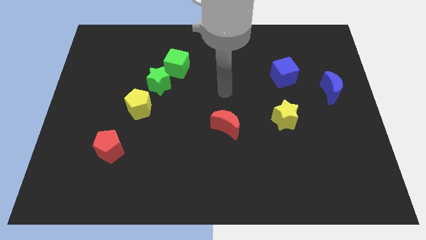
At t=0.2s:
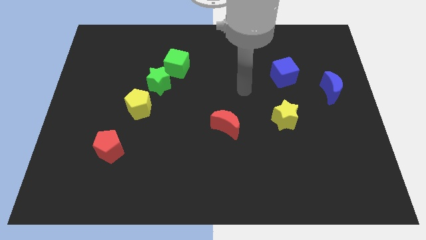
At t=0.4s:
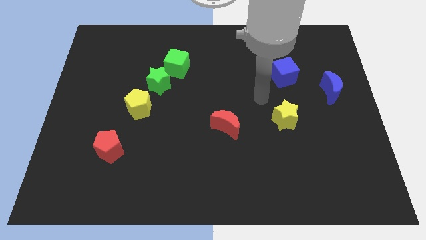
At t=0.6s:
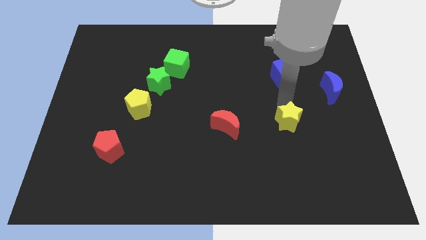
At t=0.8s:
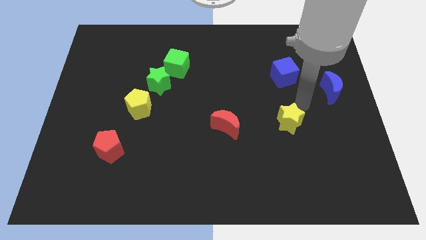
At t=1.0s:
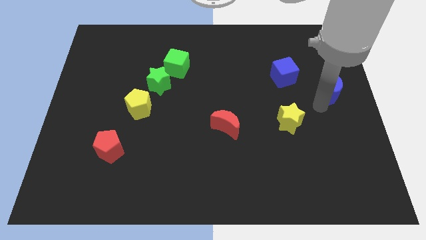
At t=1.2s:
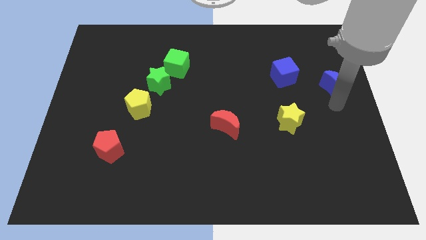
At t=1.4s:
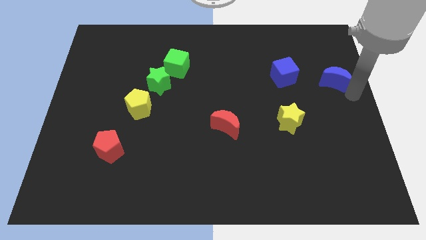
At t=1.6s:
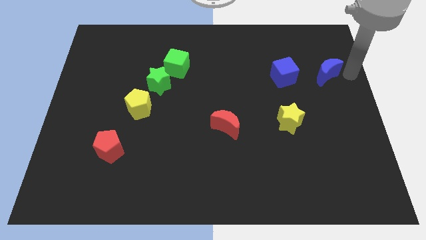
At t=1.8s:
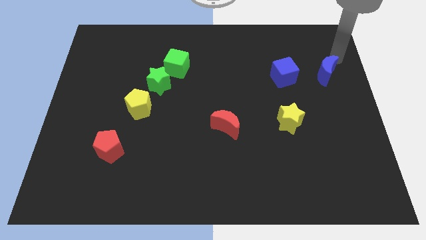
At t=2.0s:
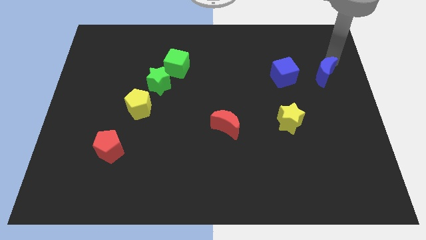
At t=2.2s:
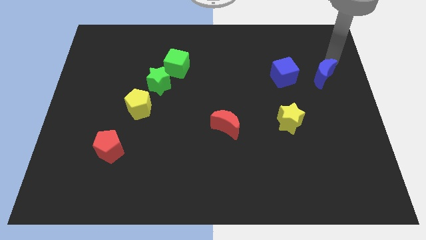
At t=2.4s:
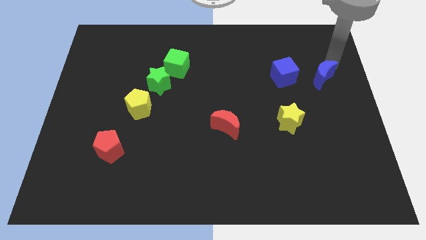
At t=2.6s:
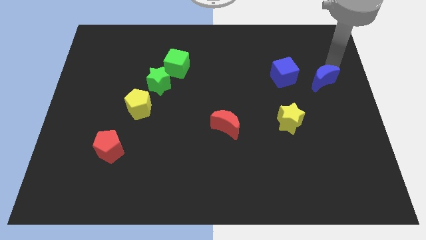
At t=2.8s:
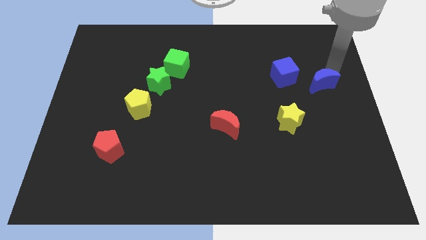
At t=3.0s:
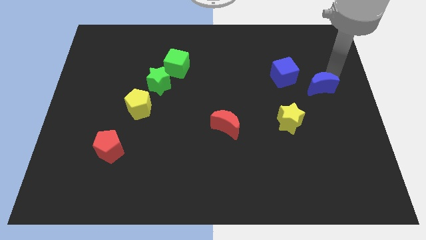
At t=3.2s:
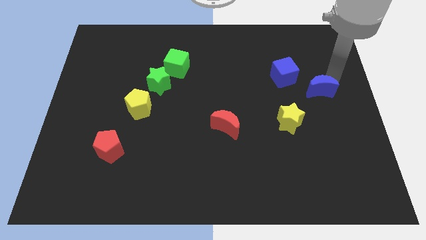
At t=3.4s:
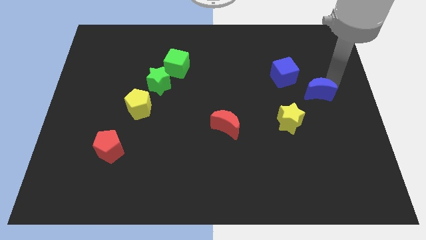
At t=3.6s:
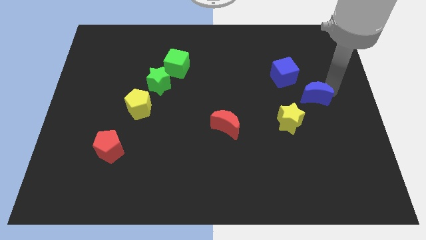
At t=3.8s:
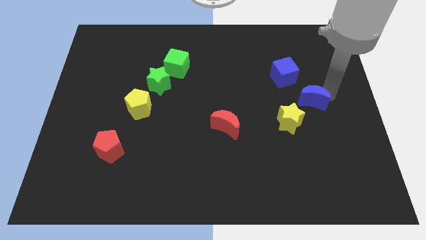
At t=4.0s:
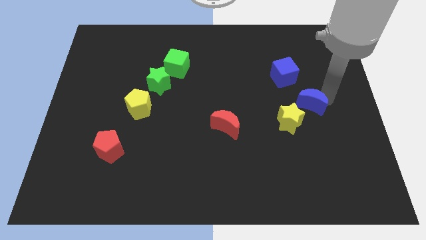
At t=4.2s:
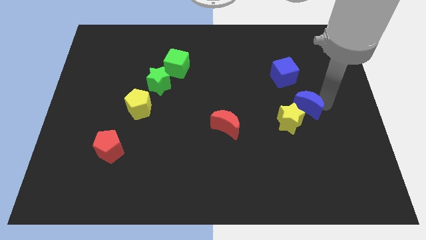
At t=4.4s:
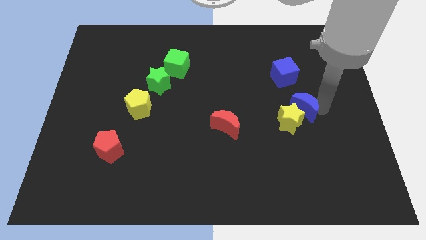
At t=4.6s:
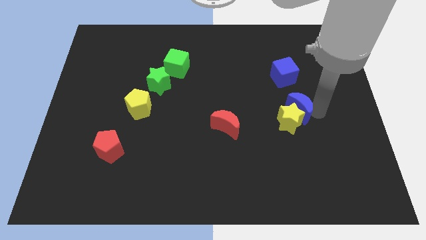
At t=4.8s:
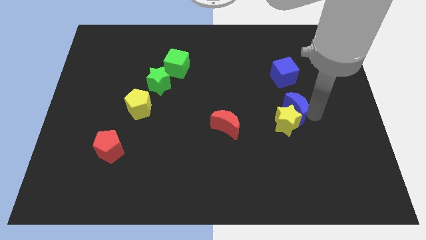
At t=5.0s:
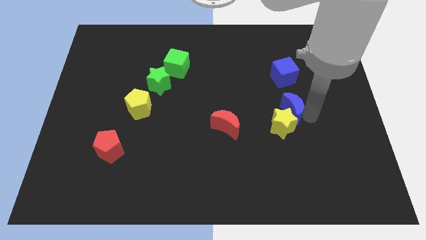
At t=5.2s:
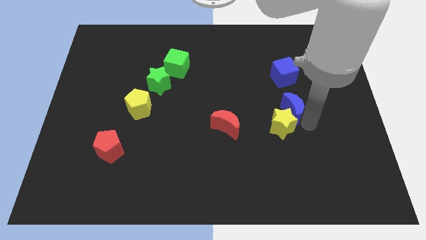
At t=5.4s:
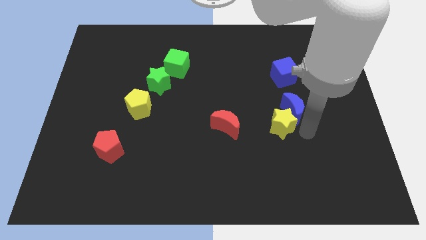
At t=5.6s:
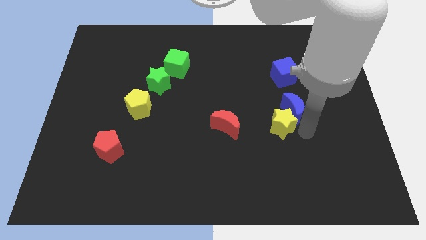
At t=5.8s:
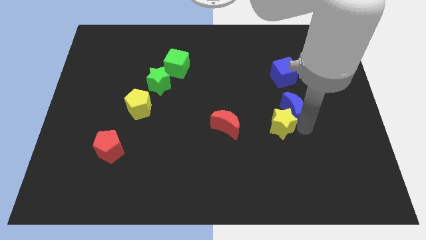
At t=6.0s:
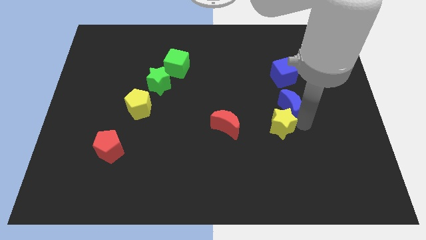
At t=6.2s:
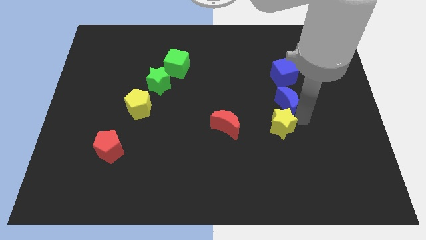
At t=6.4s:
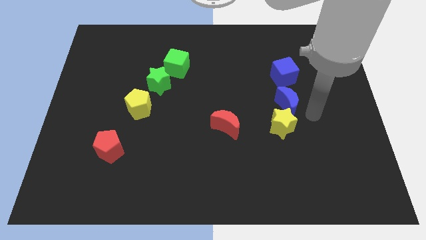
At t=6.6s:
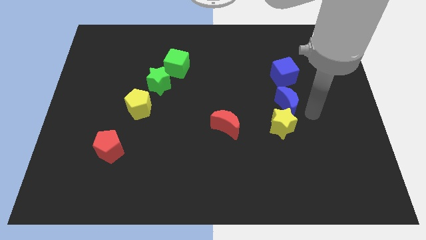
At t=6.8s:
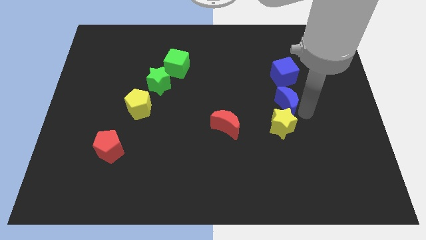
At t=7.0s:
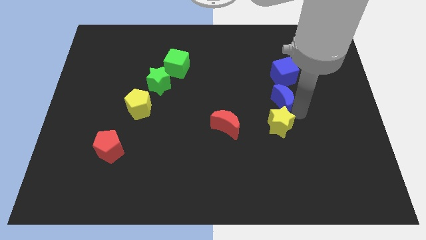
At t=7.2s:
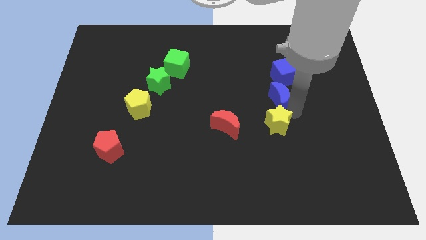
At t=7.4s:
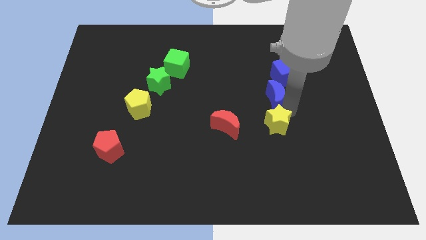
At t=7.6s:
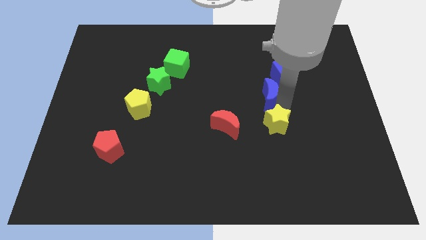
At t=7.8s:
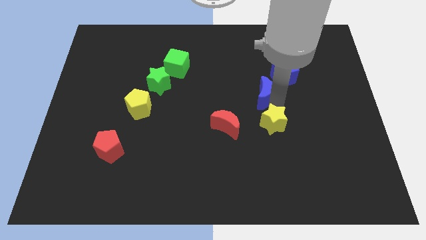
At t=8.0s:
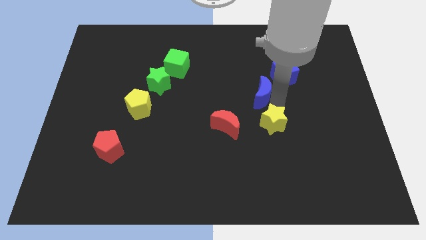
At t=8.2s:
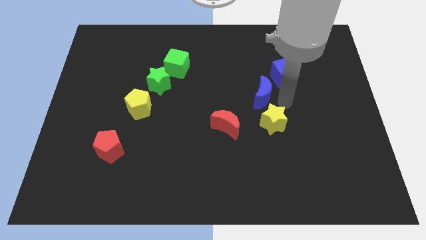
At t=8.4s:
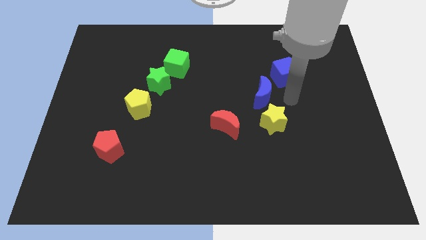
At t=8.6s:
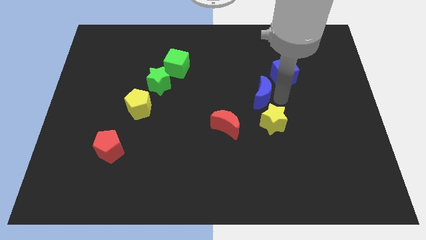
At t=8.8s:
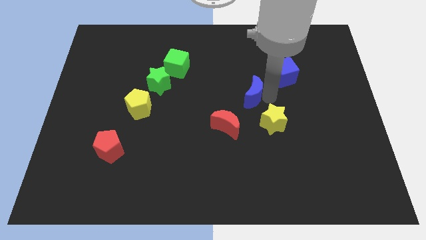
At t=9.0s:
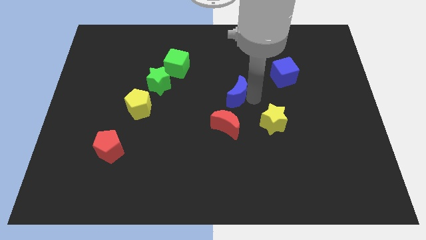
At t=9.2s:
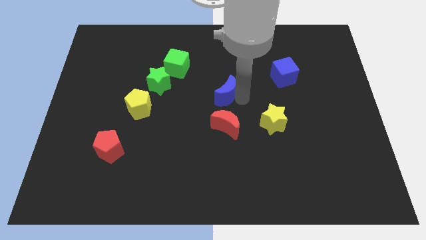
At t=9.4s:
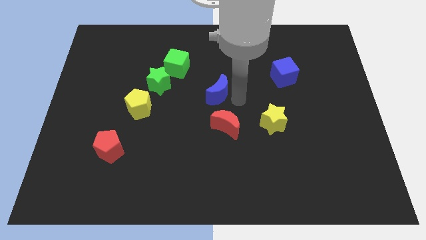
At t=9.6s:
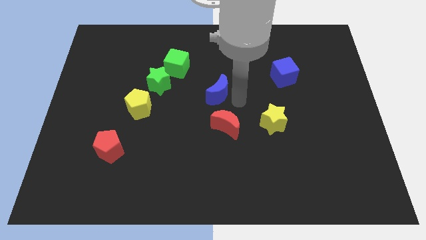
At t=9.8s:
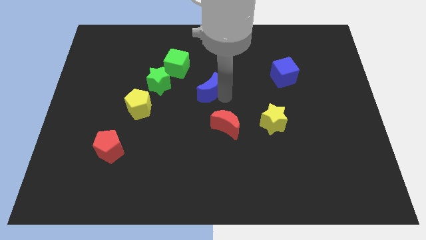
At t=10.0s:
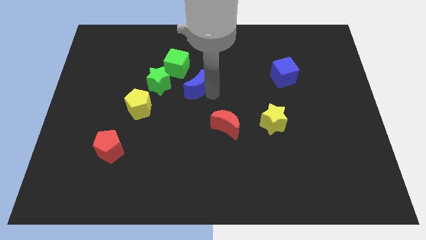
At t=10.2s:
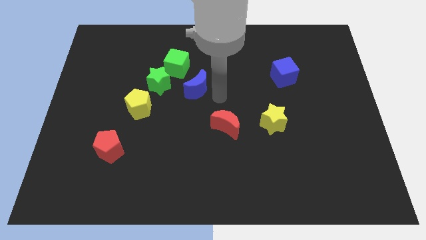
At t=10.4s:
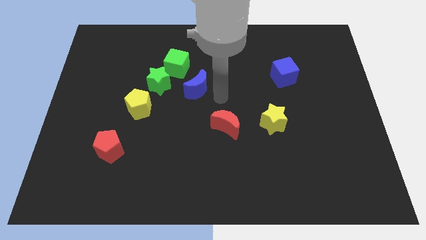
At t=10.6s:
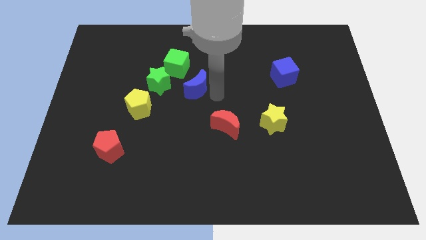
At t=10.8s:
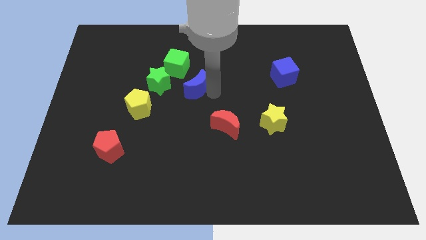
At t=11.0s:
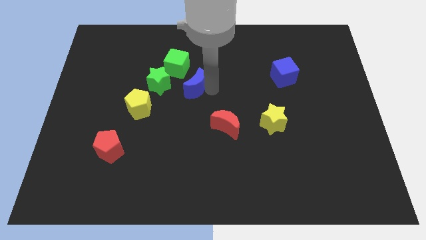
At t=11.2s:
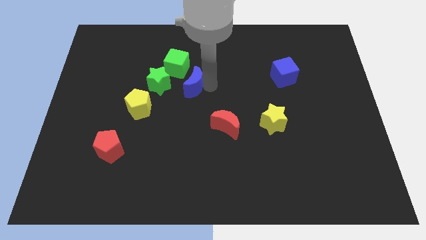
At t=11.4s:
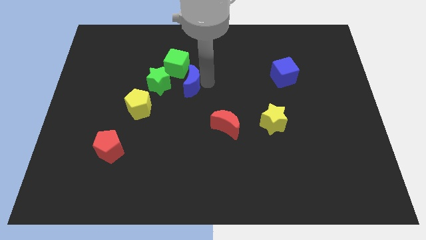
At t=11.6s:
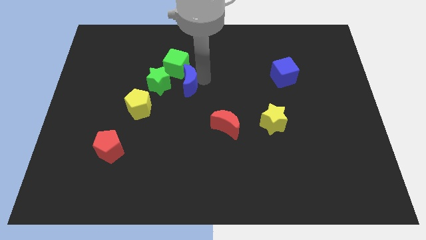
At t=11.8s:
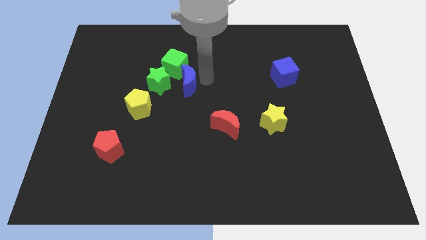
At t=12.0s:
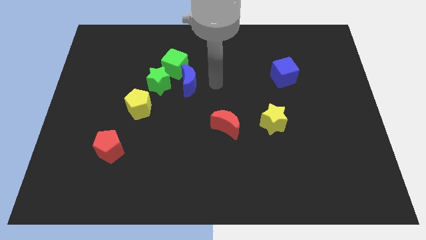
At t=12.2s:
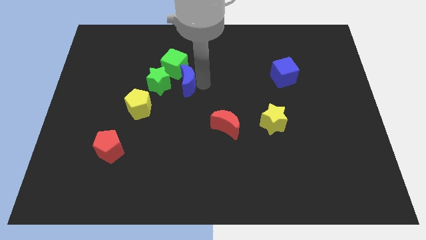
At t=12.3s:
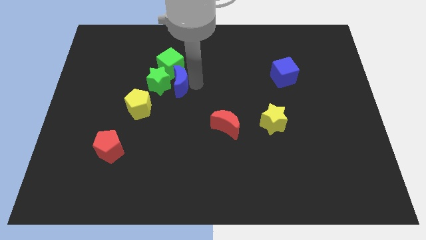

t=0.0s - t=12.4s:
put the blue moon towards the green star
